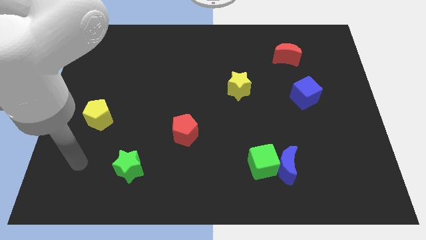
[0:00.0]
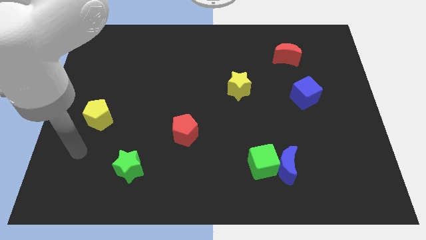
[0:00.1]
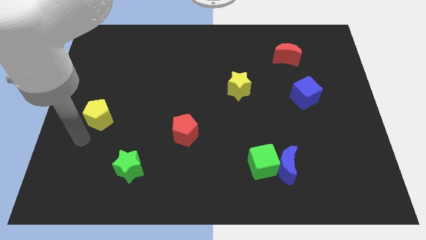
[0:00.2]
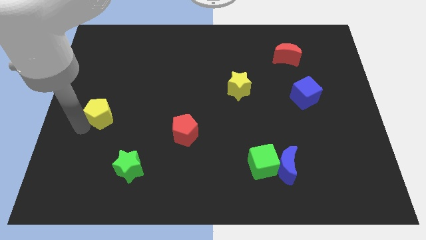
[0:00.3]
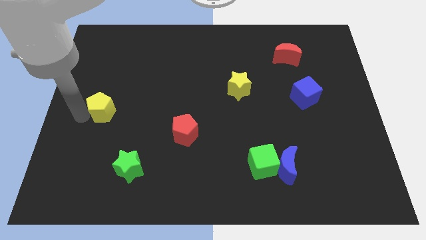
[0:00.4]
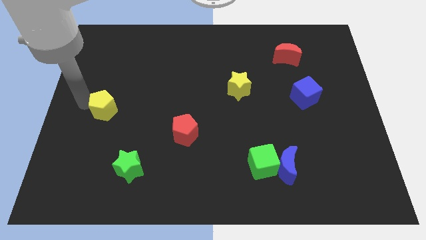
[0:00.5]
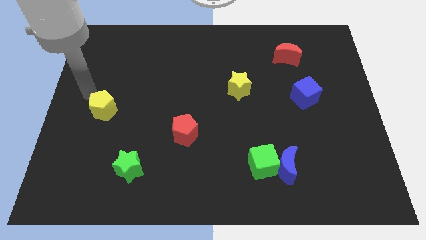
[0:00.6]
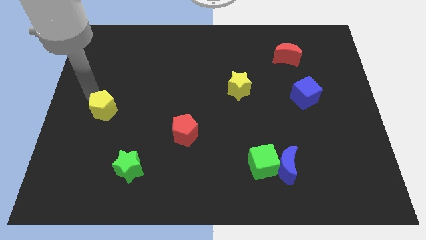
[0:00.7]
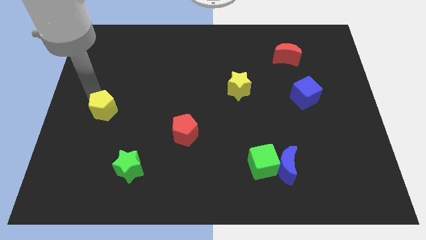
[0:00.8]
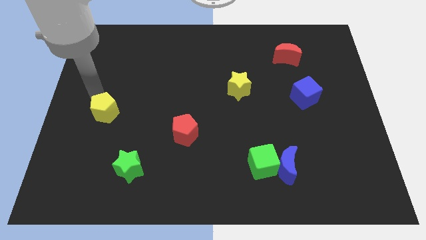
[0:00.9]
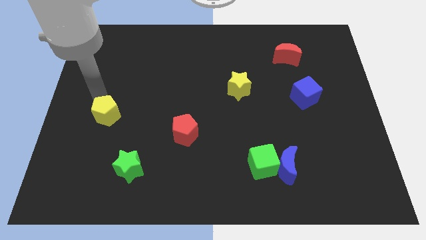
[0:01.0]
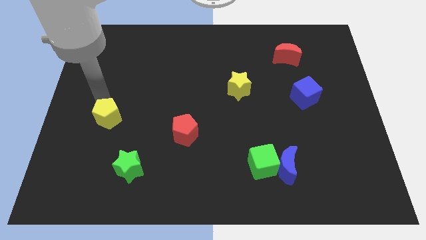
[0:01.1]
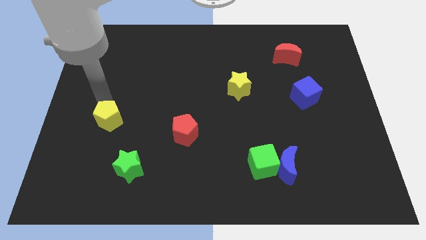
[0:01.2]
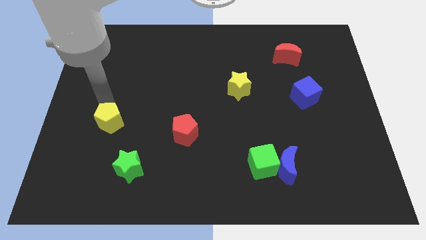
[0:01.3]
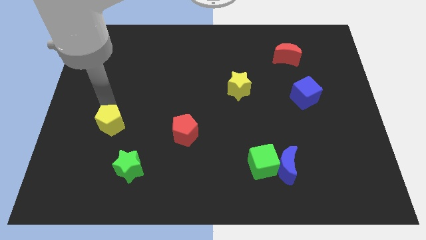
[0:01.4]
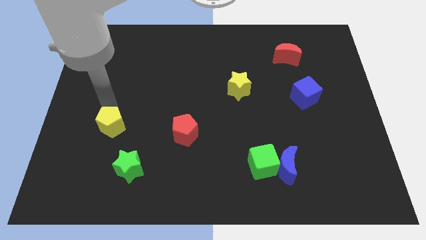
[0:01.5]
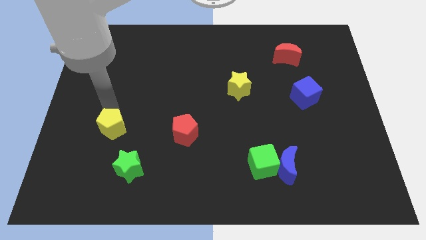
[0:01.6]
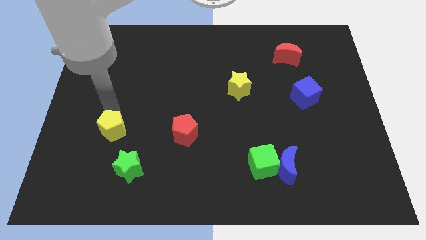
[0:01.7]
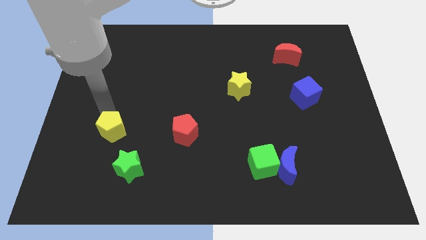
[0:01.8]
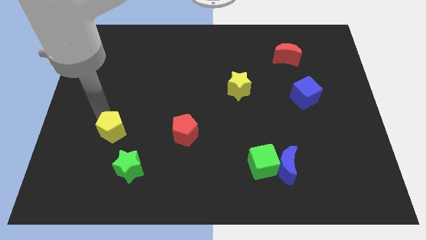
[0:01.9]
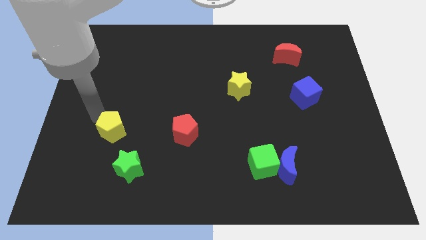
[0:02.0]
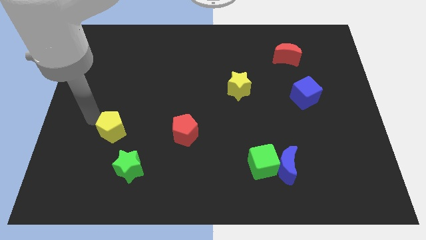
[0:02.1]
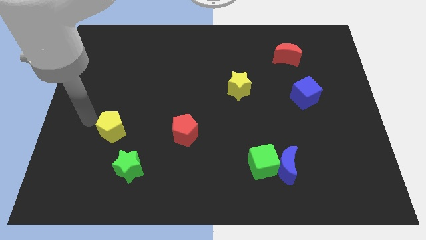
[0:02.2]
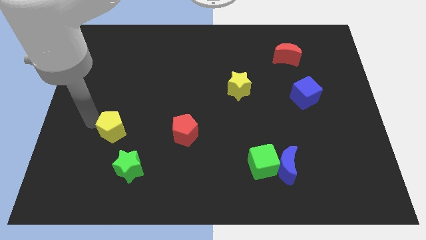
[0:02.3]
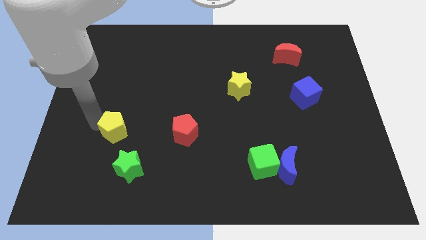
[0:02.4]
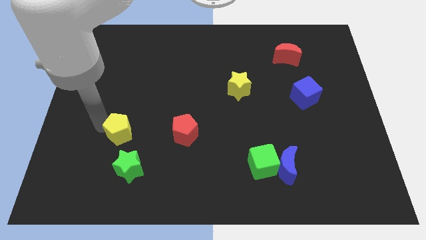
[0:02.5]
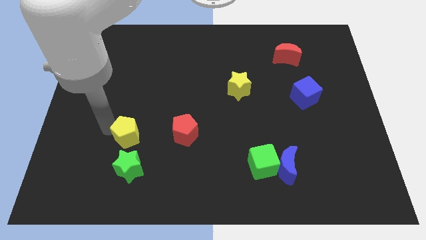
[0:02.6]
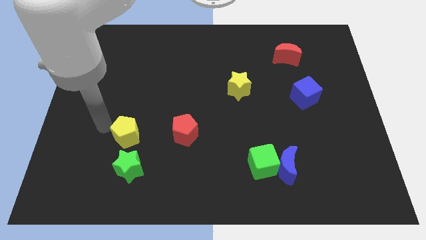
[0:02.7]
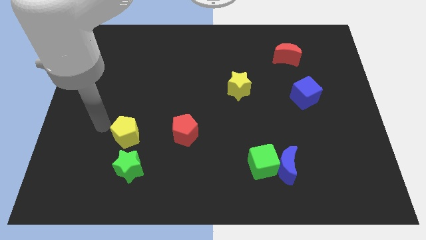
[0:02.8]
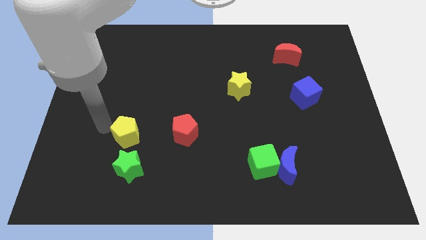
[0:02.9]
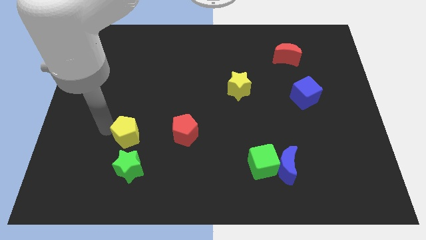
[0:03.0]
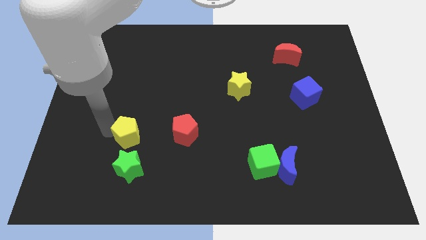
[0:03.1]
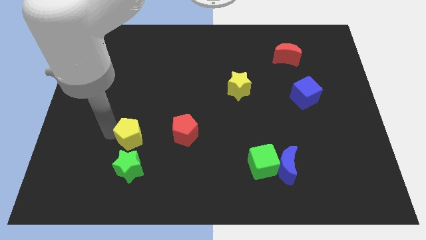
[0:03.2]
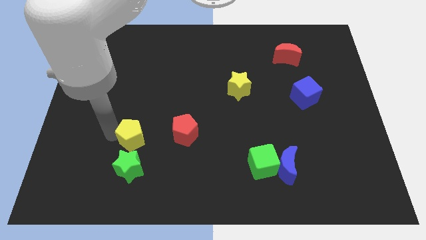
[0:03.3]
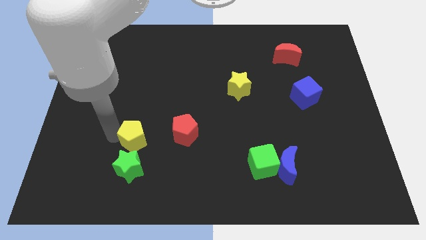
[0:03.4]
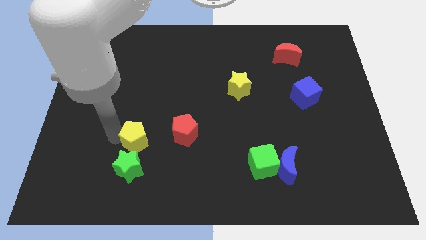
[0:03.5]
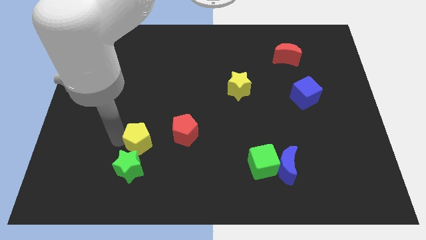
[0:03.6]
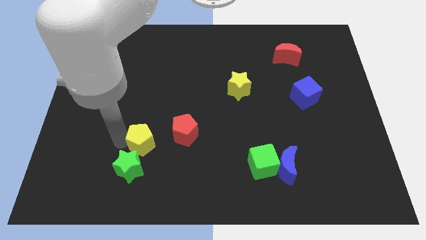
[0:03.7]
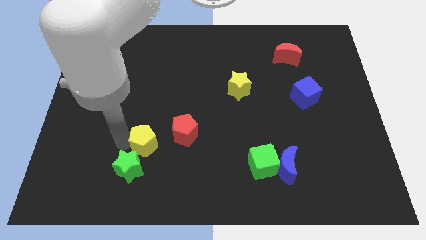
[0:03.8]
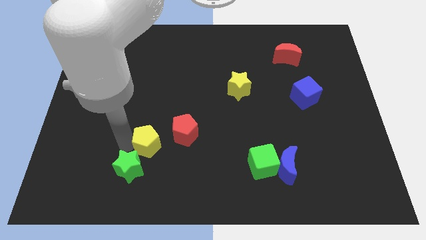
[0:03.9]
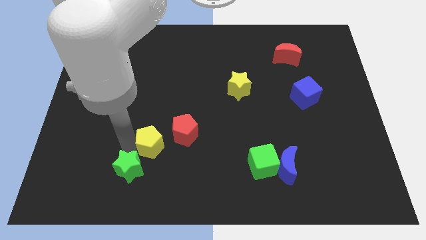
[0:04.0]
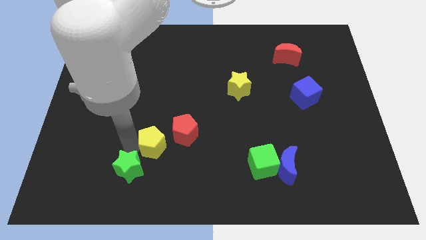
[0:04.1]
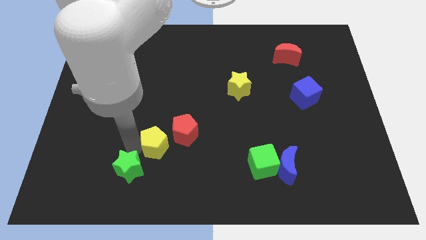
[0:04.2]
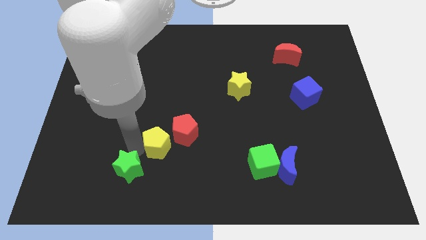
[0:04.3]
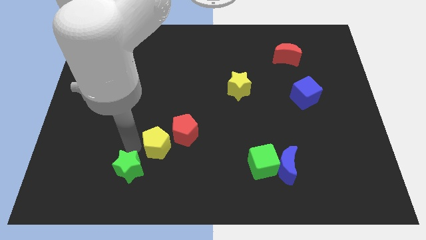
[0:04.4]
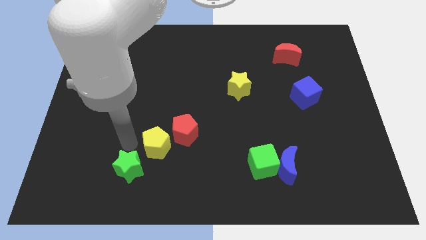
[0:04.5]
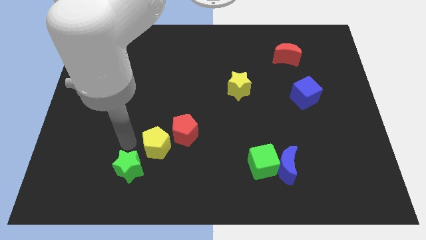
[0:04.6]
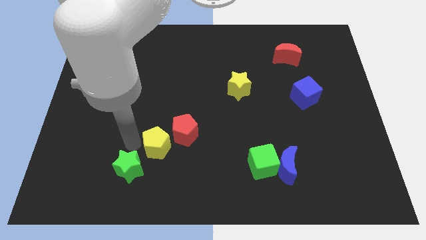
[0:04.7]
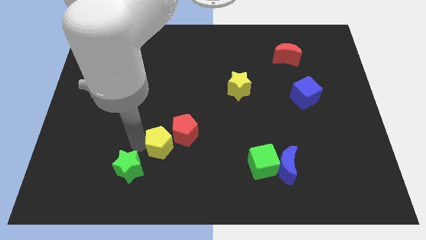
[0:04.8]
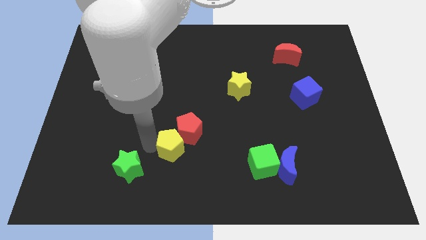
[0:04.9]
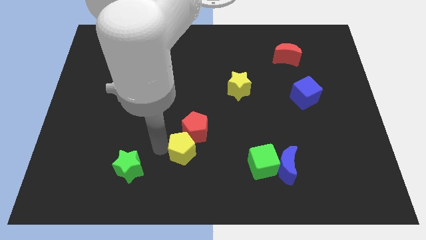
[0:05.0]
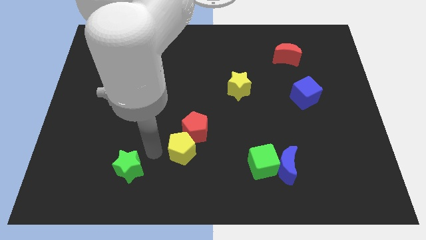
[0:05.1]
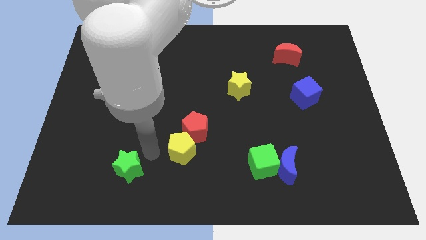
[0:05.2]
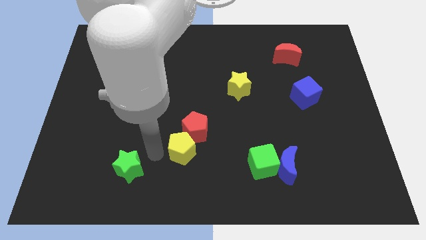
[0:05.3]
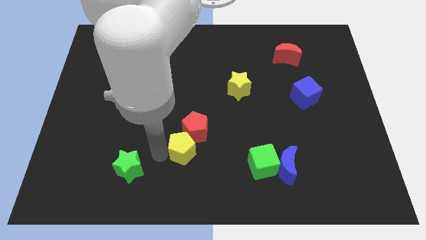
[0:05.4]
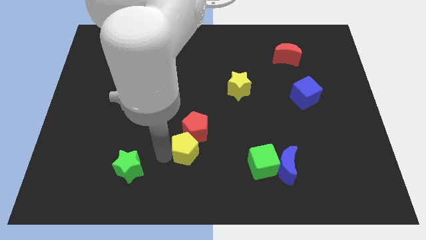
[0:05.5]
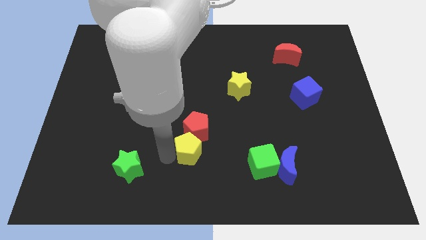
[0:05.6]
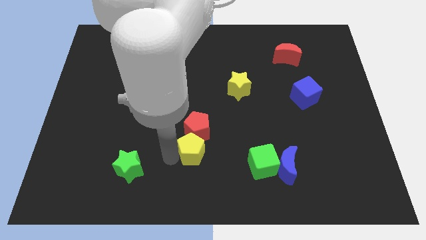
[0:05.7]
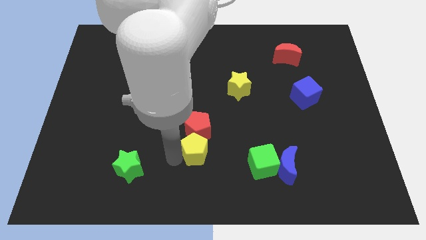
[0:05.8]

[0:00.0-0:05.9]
slide the yellow pentagon to the bottom right of the red pentagon

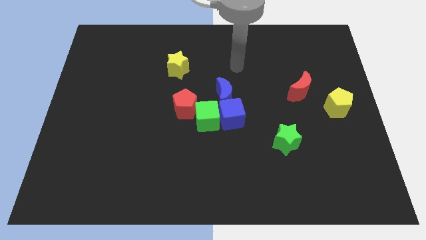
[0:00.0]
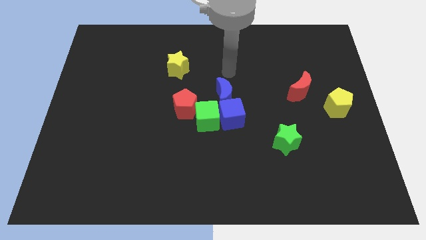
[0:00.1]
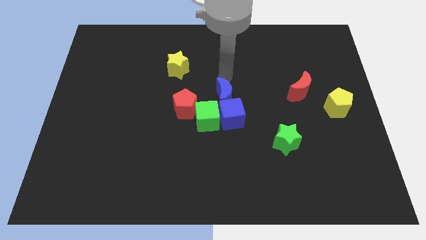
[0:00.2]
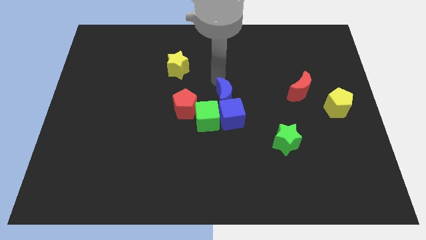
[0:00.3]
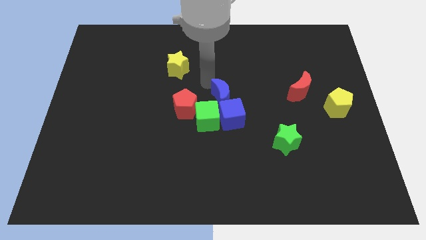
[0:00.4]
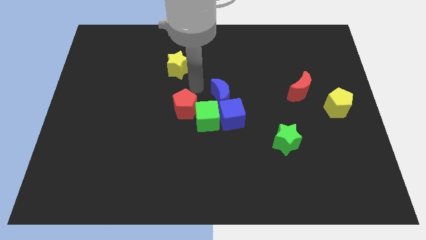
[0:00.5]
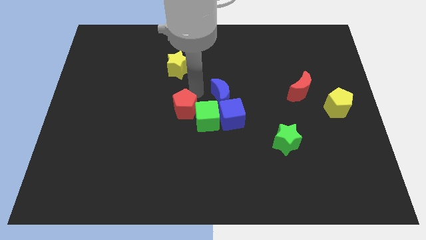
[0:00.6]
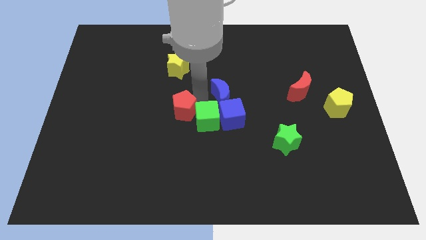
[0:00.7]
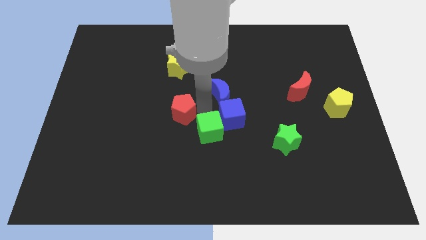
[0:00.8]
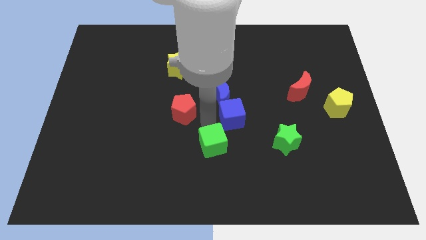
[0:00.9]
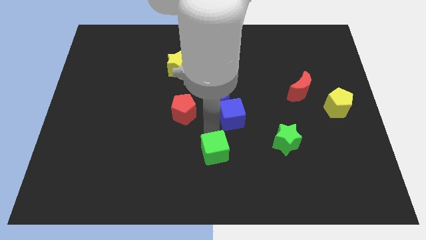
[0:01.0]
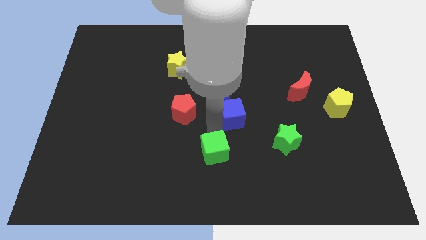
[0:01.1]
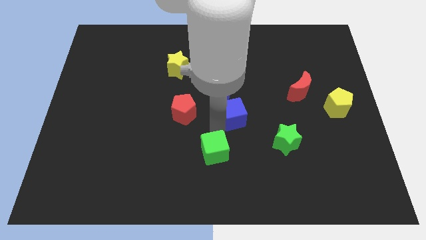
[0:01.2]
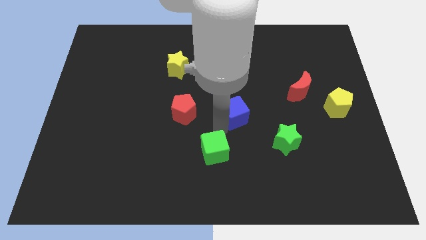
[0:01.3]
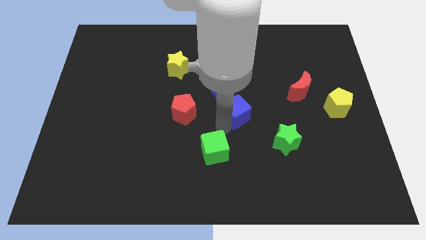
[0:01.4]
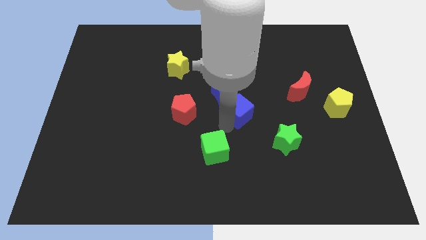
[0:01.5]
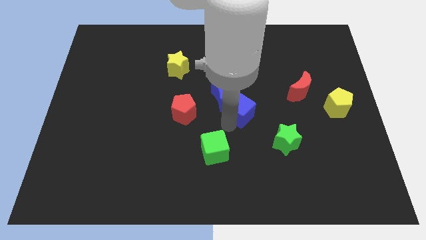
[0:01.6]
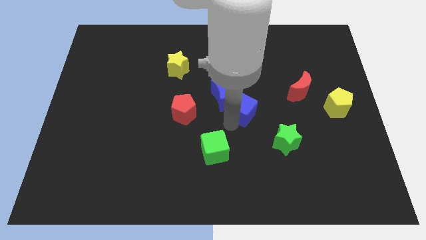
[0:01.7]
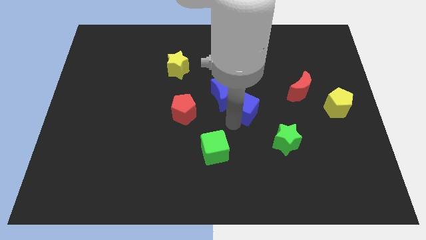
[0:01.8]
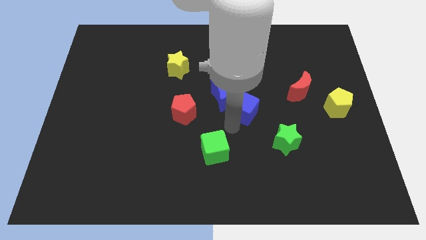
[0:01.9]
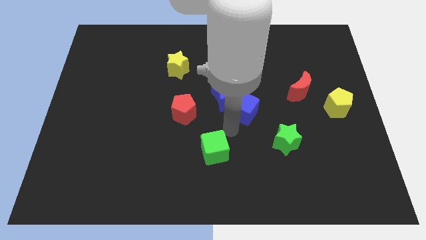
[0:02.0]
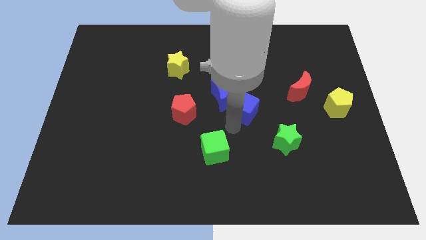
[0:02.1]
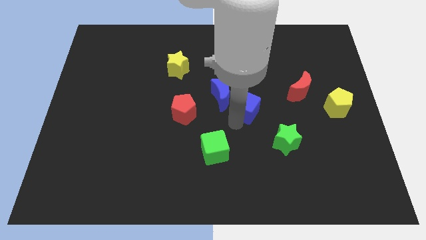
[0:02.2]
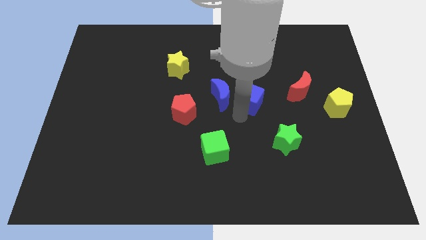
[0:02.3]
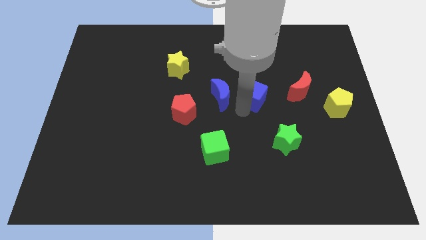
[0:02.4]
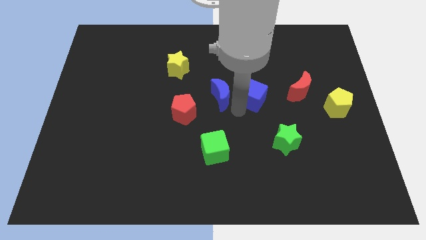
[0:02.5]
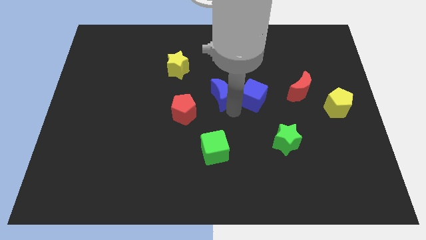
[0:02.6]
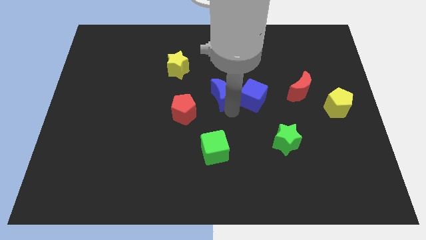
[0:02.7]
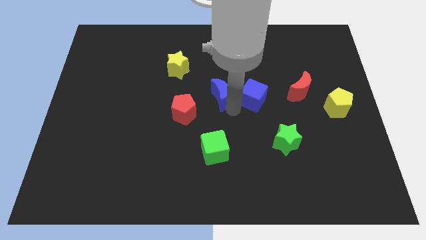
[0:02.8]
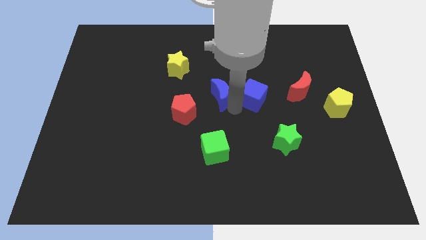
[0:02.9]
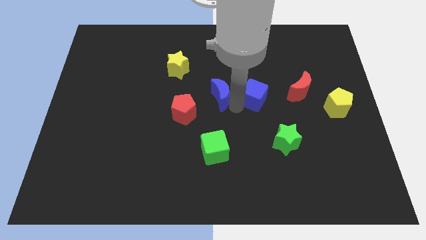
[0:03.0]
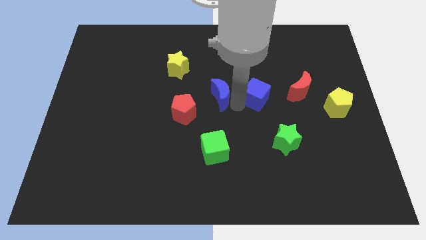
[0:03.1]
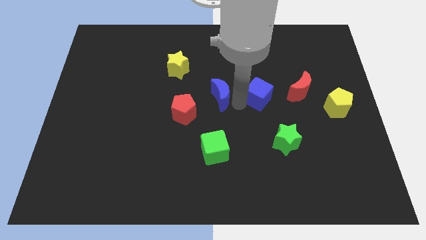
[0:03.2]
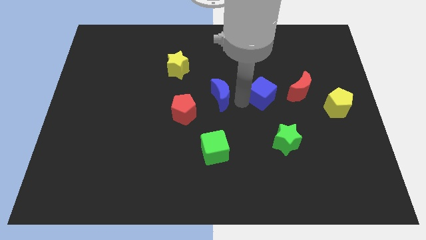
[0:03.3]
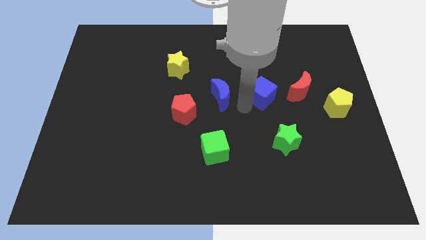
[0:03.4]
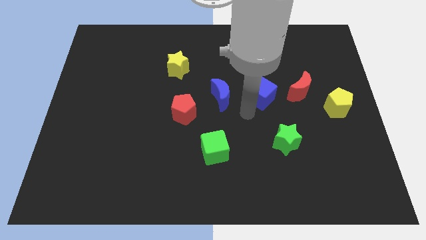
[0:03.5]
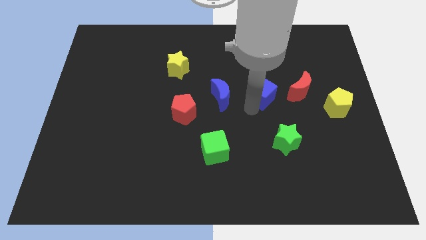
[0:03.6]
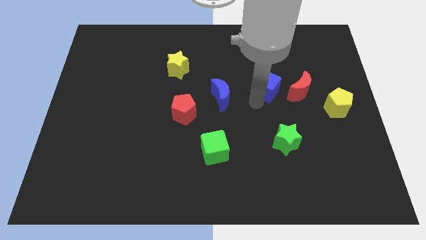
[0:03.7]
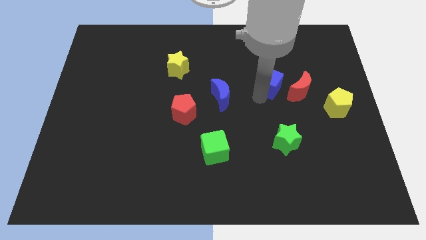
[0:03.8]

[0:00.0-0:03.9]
put the blue cube to the top left side of the red moon
